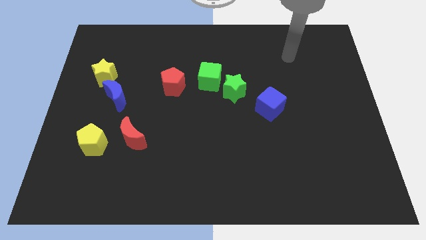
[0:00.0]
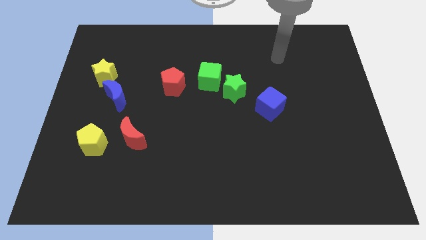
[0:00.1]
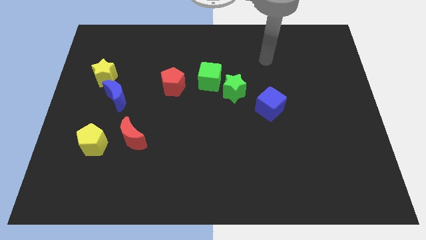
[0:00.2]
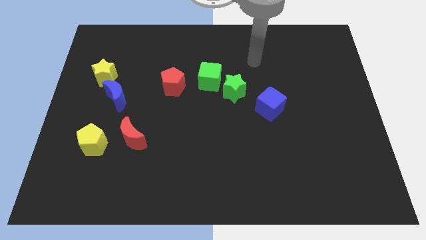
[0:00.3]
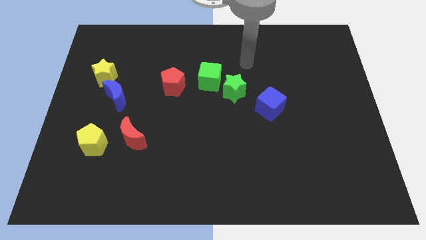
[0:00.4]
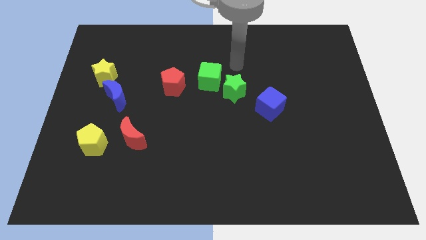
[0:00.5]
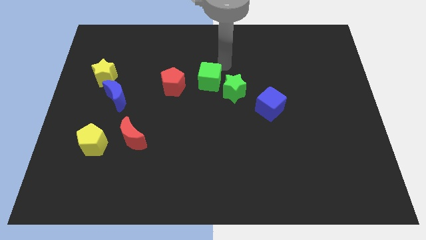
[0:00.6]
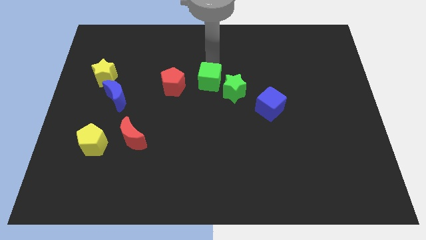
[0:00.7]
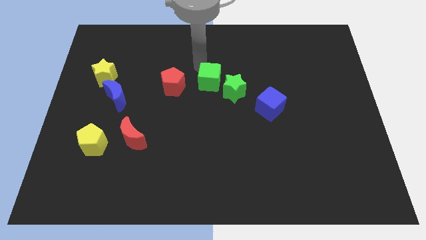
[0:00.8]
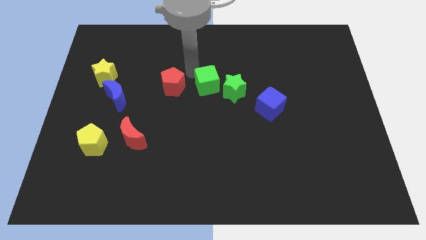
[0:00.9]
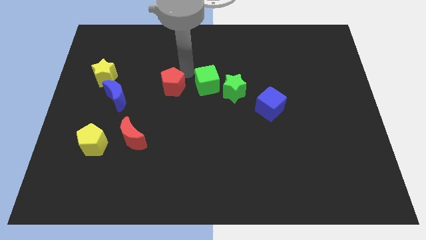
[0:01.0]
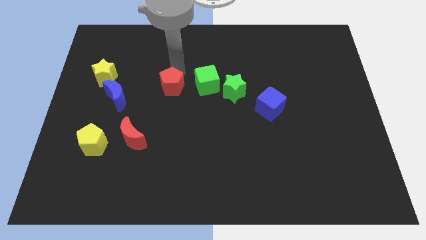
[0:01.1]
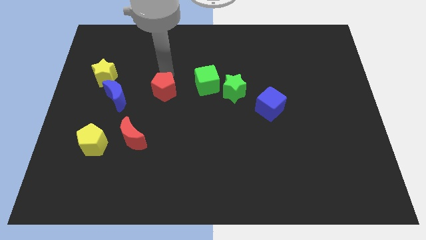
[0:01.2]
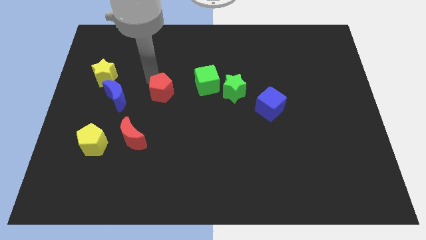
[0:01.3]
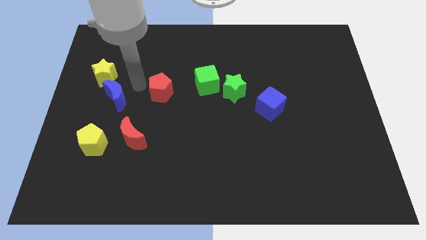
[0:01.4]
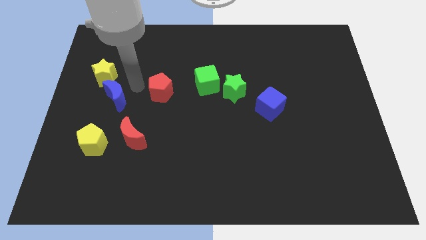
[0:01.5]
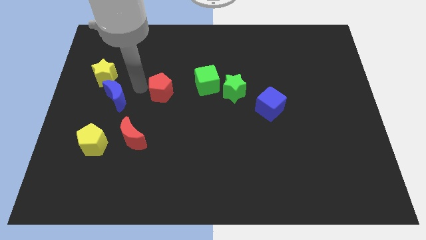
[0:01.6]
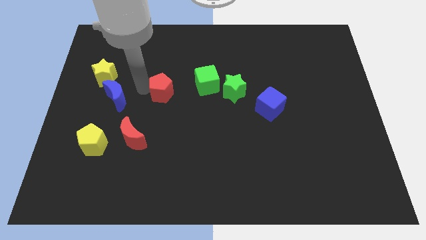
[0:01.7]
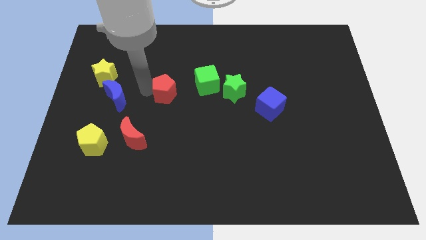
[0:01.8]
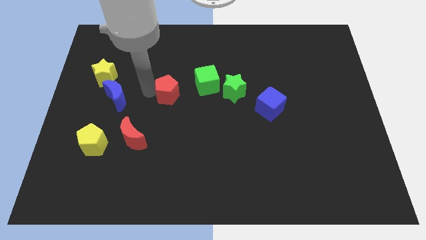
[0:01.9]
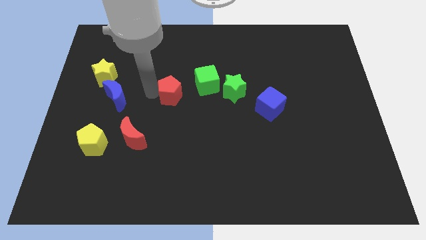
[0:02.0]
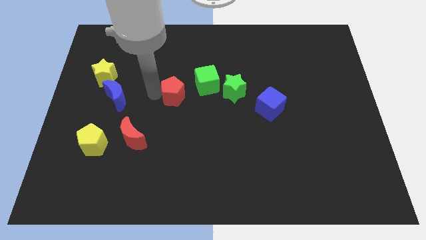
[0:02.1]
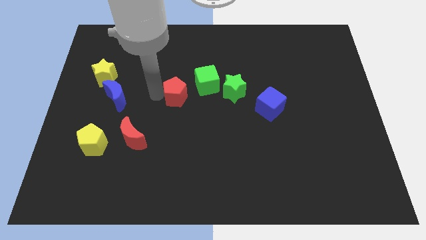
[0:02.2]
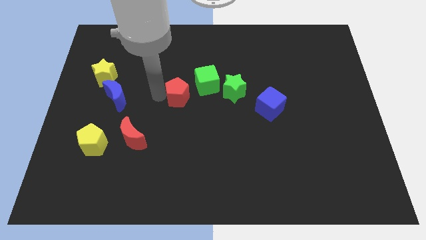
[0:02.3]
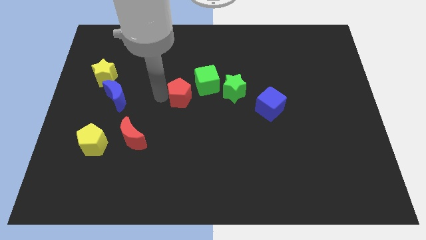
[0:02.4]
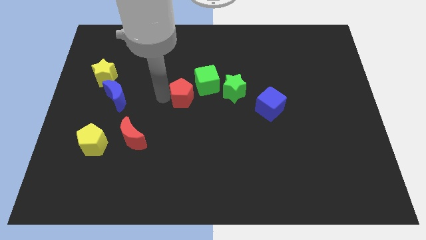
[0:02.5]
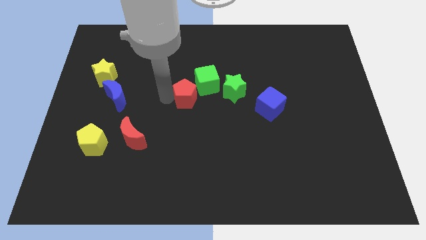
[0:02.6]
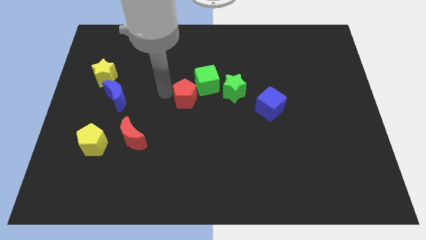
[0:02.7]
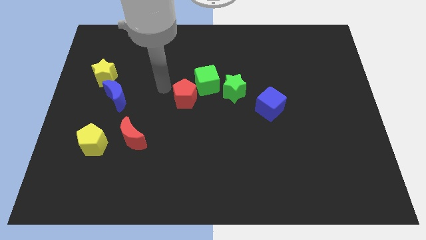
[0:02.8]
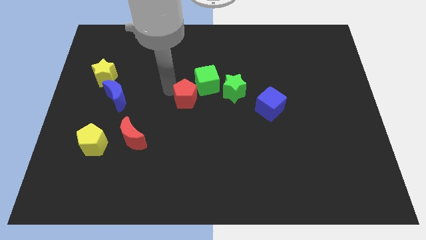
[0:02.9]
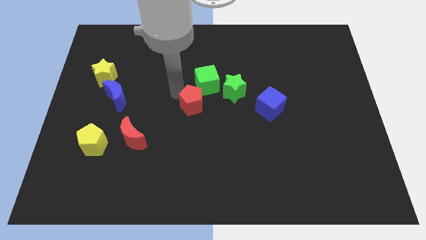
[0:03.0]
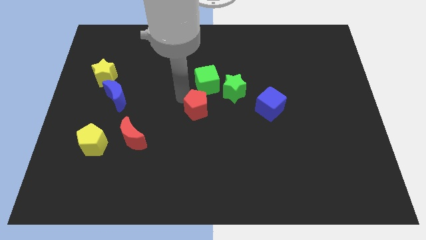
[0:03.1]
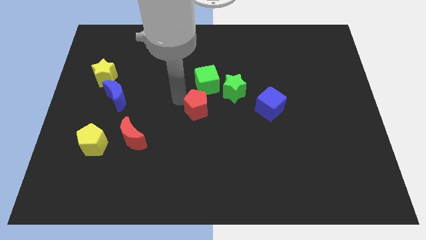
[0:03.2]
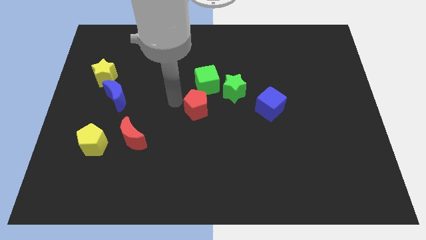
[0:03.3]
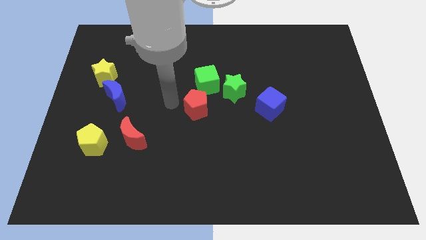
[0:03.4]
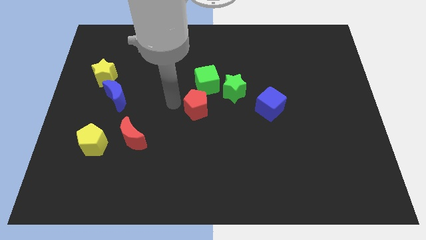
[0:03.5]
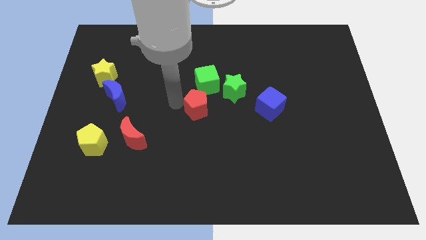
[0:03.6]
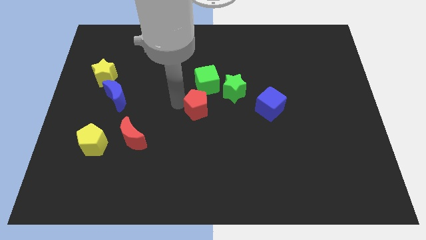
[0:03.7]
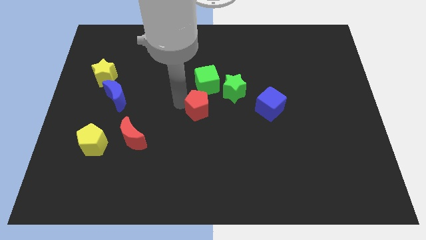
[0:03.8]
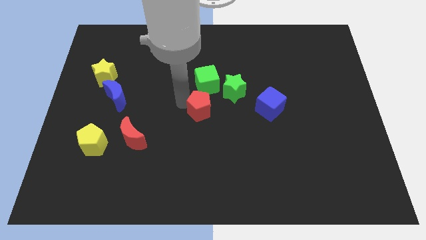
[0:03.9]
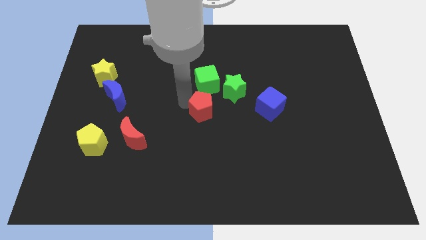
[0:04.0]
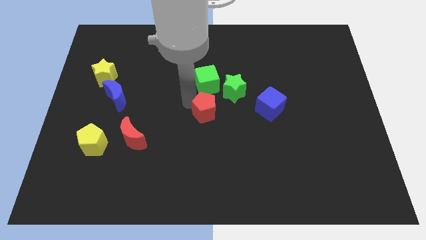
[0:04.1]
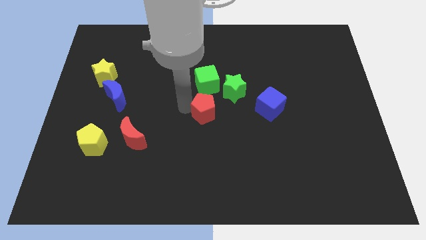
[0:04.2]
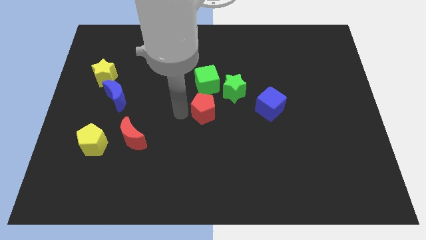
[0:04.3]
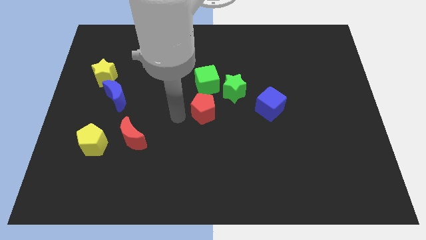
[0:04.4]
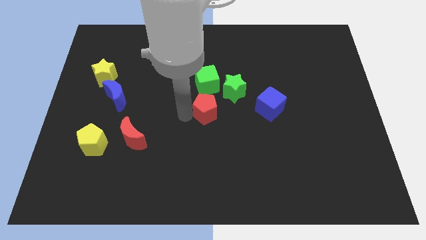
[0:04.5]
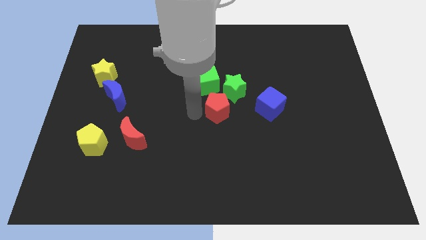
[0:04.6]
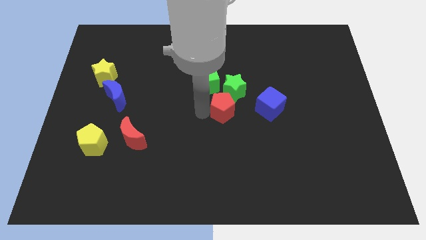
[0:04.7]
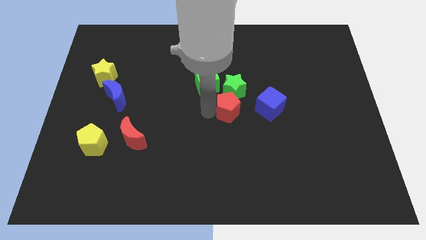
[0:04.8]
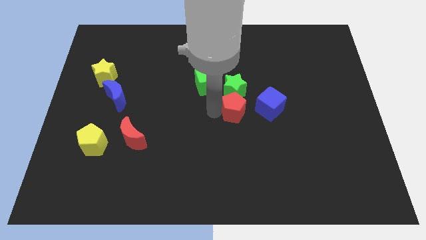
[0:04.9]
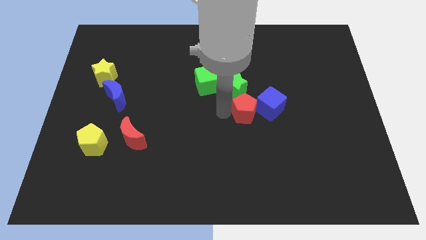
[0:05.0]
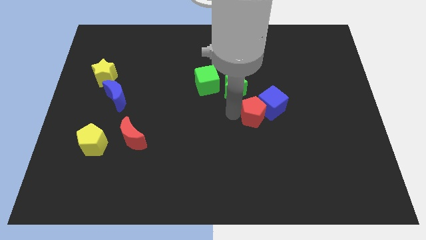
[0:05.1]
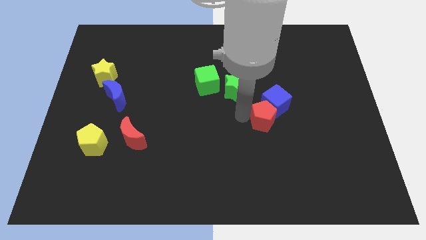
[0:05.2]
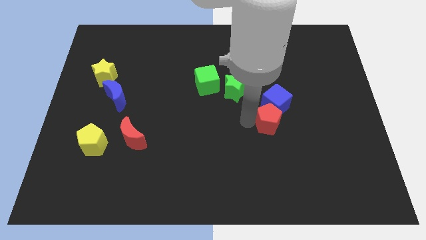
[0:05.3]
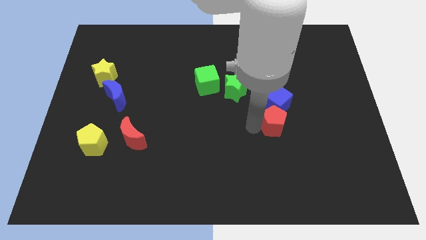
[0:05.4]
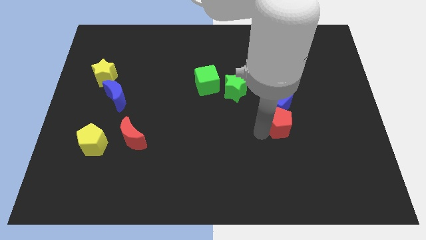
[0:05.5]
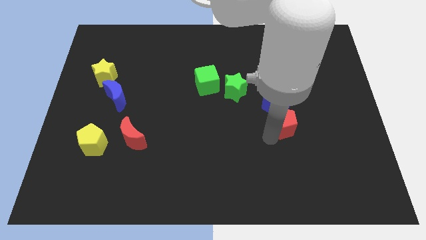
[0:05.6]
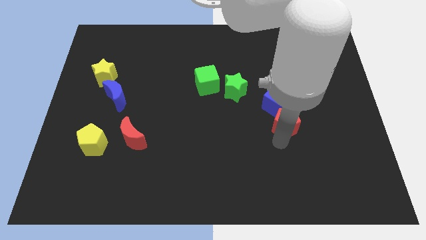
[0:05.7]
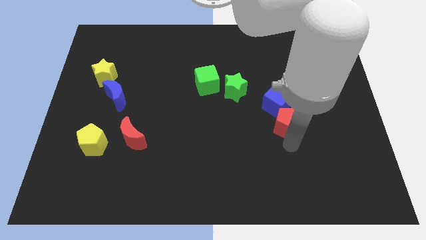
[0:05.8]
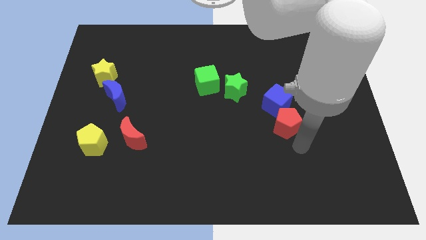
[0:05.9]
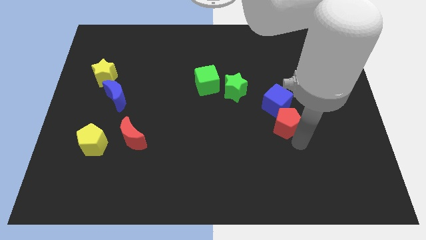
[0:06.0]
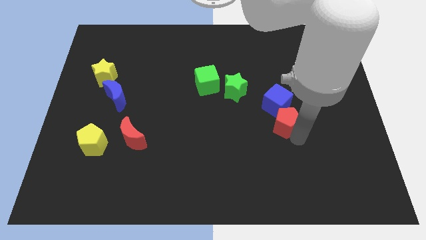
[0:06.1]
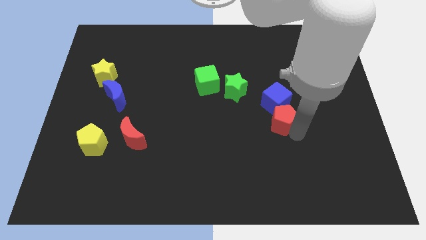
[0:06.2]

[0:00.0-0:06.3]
slide the red pentagon to the right

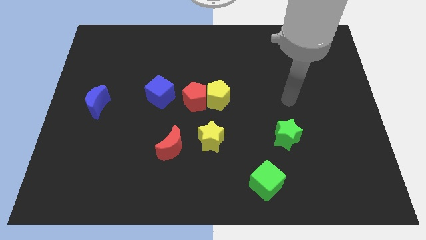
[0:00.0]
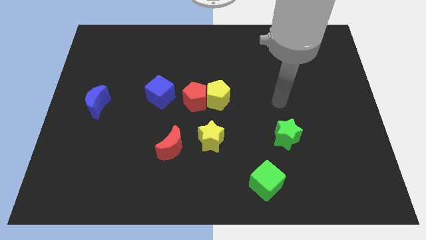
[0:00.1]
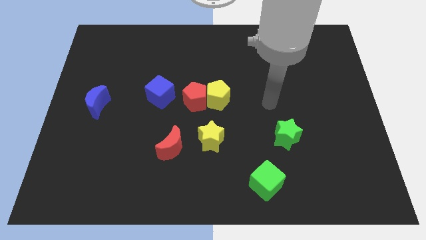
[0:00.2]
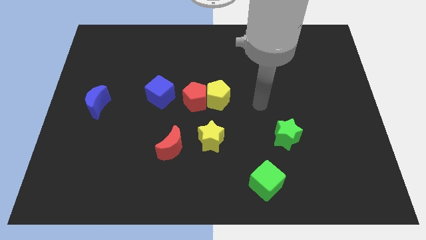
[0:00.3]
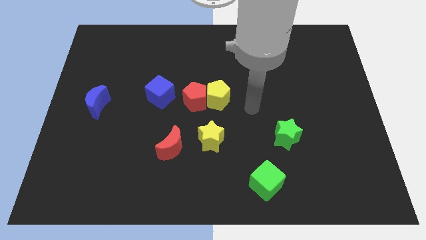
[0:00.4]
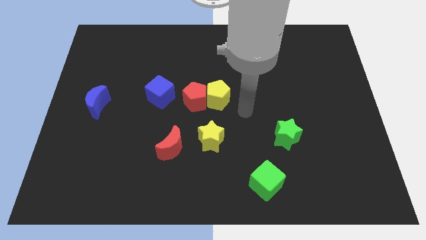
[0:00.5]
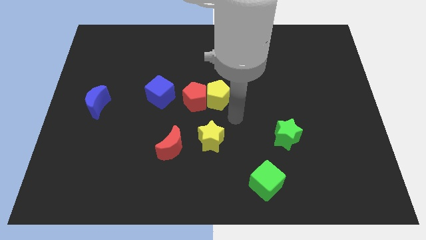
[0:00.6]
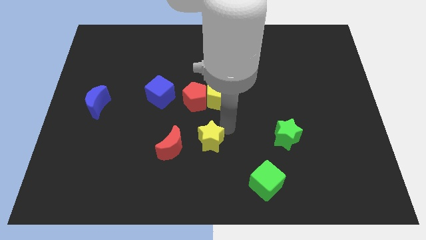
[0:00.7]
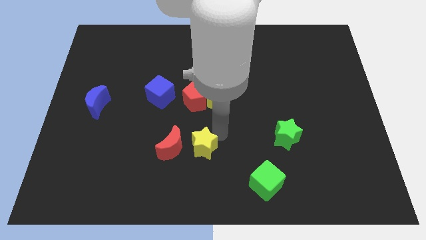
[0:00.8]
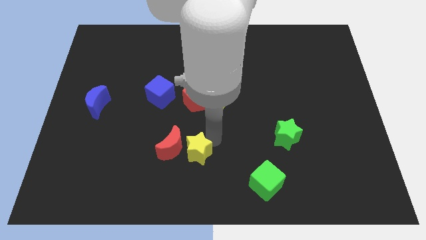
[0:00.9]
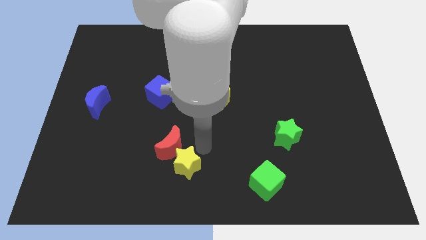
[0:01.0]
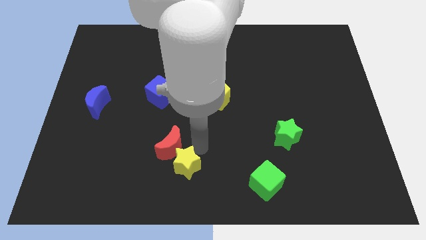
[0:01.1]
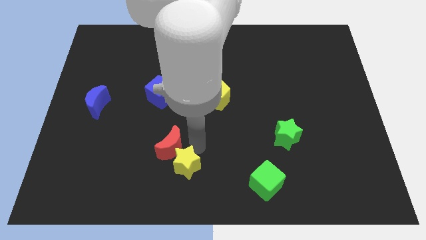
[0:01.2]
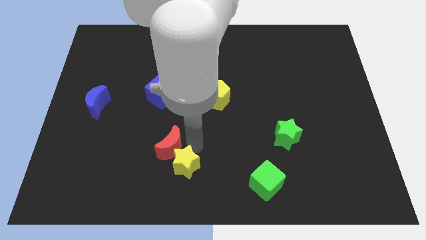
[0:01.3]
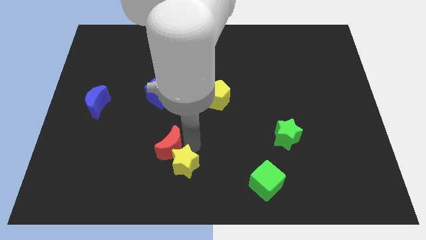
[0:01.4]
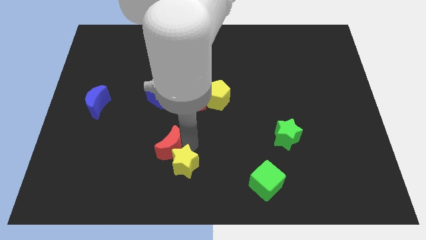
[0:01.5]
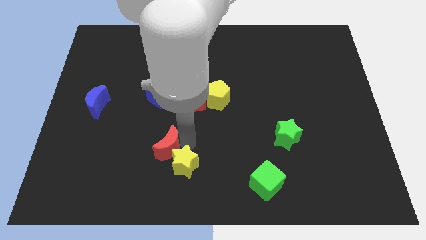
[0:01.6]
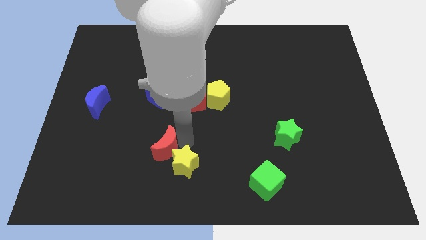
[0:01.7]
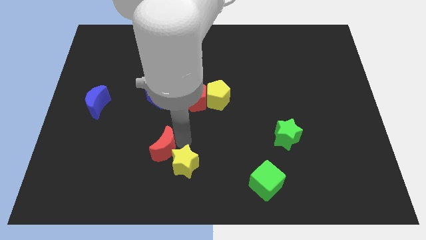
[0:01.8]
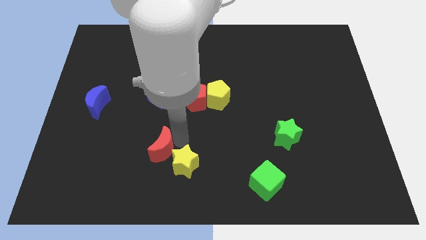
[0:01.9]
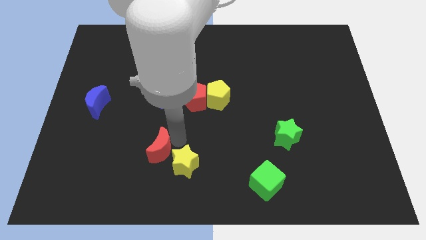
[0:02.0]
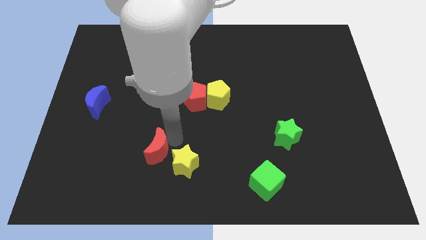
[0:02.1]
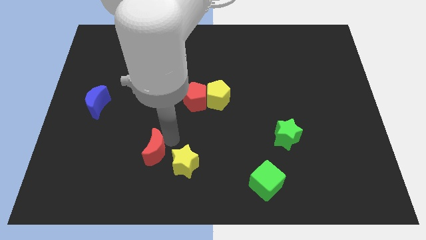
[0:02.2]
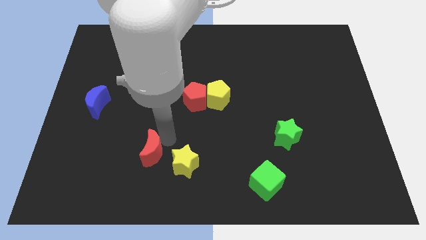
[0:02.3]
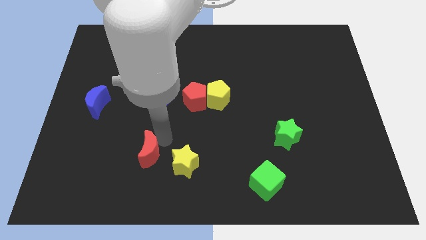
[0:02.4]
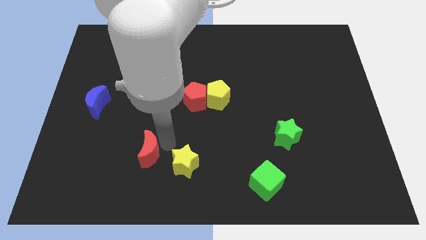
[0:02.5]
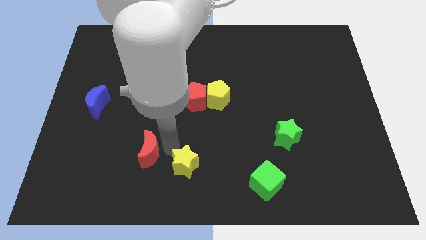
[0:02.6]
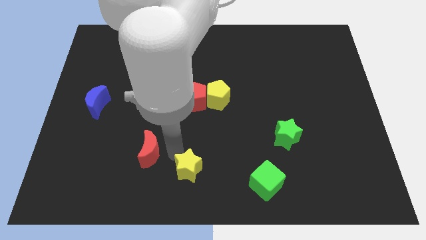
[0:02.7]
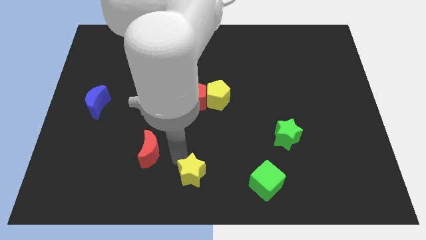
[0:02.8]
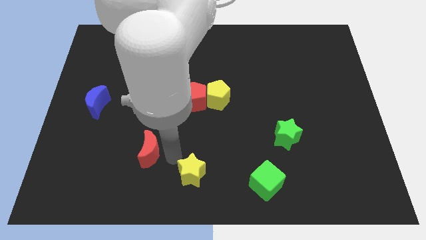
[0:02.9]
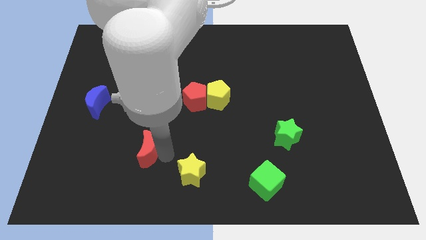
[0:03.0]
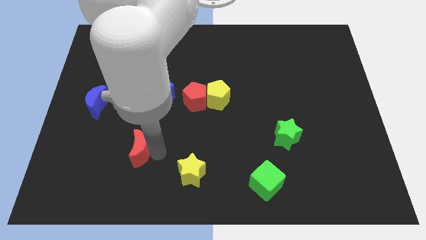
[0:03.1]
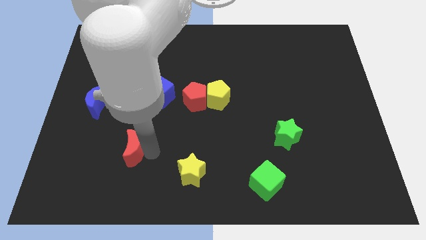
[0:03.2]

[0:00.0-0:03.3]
move the red moon left slightly
